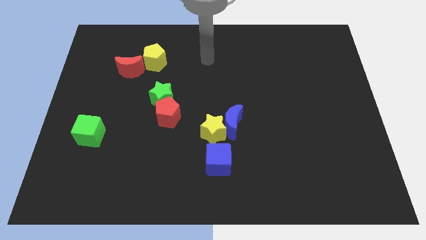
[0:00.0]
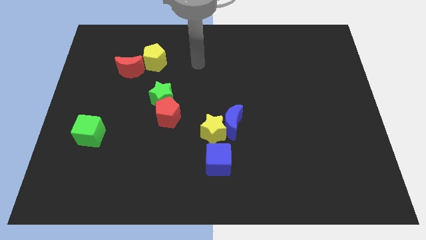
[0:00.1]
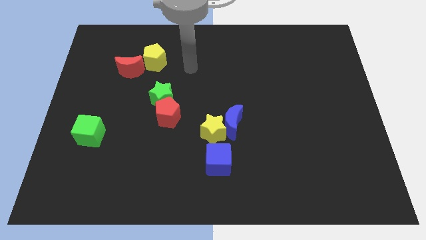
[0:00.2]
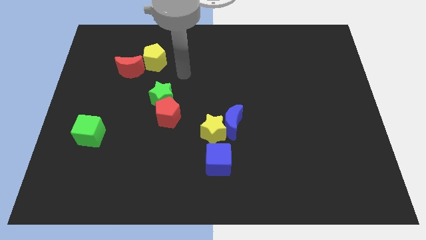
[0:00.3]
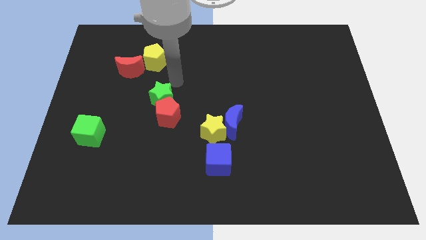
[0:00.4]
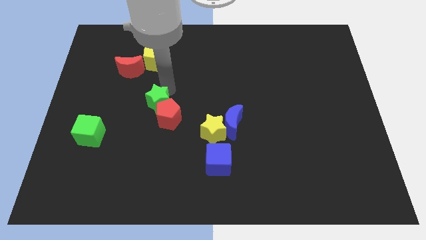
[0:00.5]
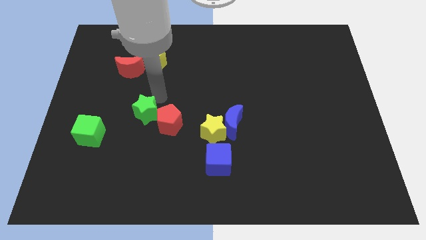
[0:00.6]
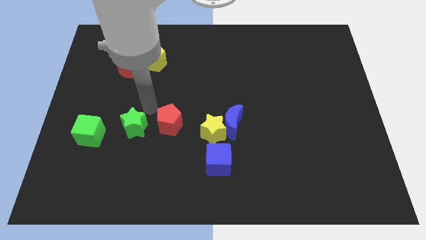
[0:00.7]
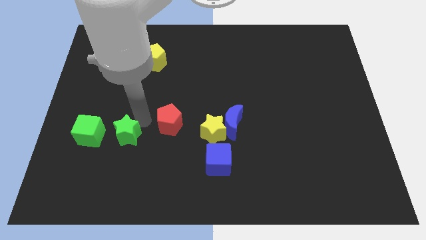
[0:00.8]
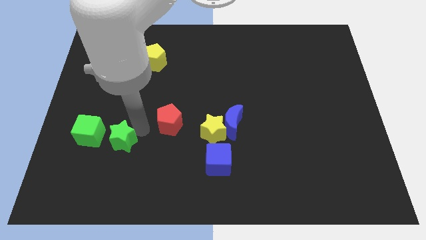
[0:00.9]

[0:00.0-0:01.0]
move the red pentagon away from the green star

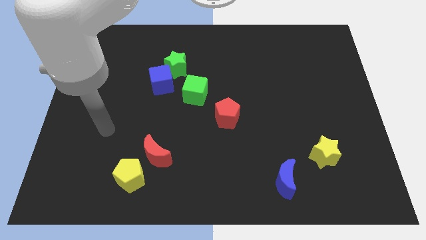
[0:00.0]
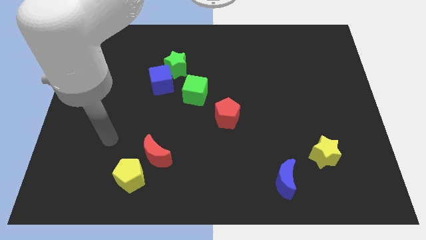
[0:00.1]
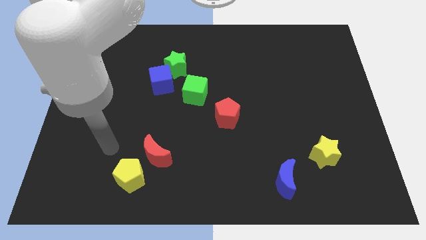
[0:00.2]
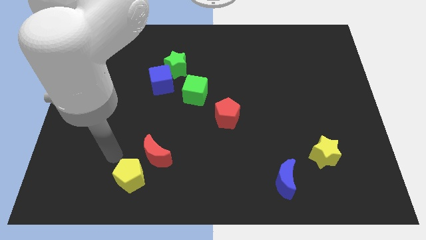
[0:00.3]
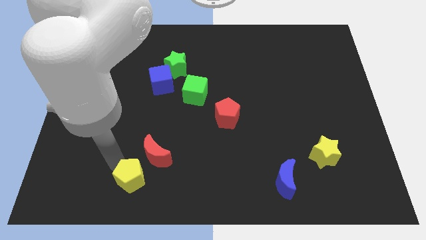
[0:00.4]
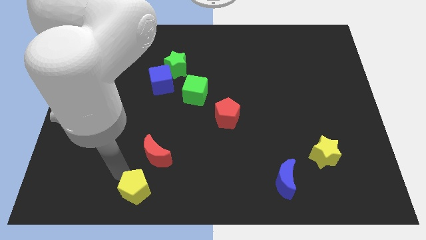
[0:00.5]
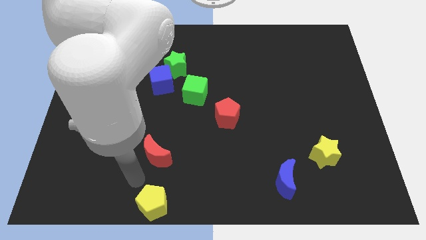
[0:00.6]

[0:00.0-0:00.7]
pull the red moon apart from the yellow pentagon

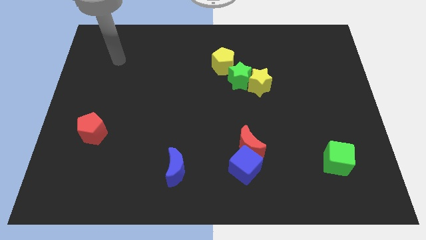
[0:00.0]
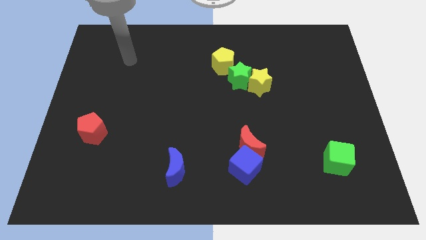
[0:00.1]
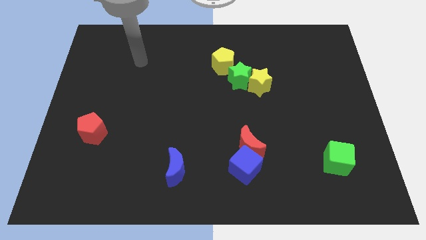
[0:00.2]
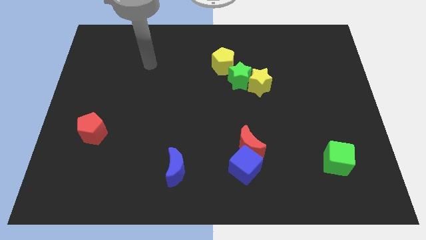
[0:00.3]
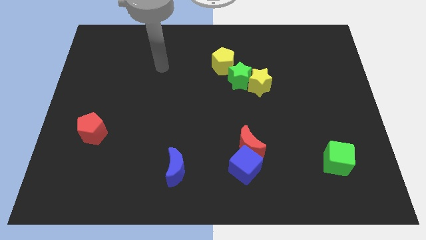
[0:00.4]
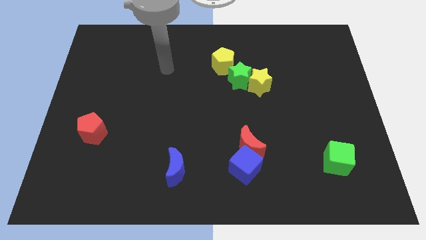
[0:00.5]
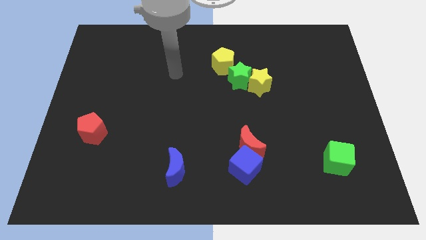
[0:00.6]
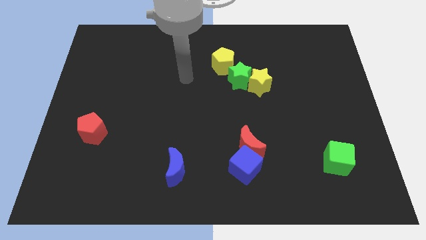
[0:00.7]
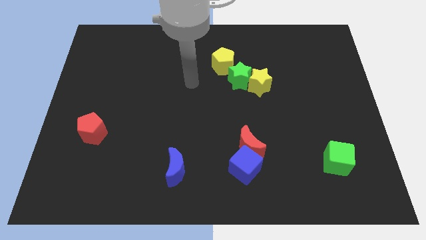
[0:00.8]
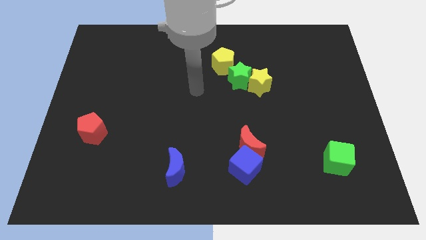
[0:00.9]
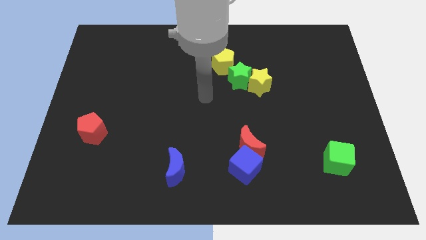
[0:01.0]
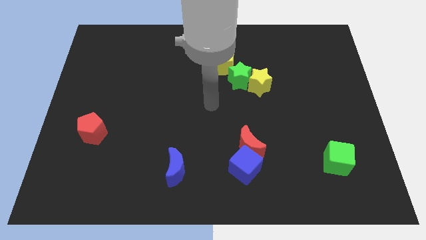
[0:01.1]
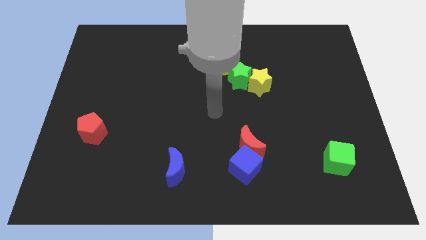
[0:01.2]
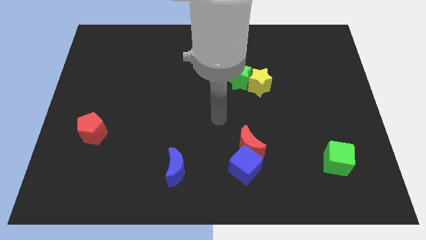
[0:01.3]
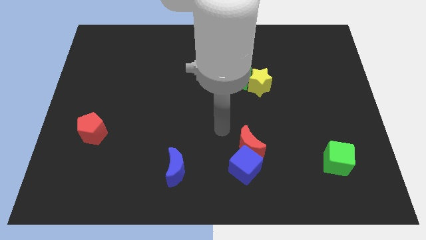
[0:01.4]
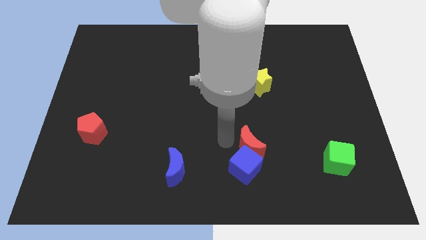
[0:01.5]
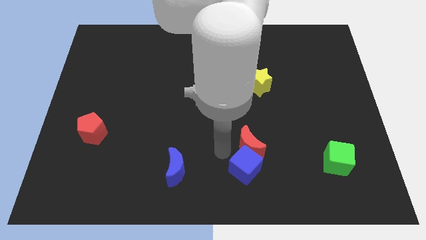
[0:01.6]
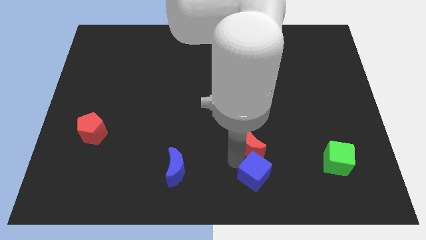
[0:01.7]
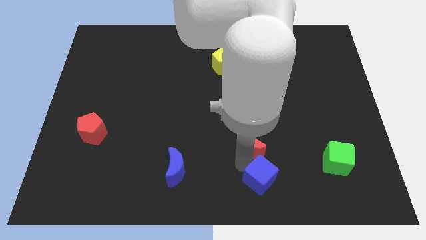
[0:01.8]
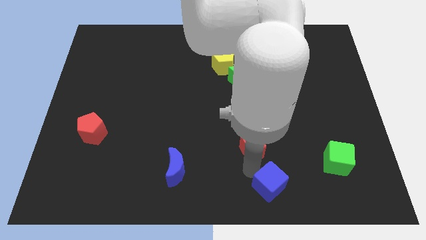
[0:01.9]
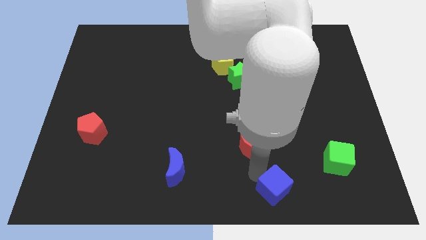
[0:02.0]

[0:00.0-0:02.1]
pull the red moon apart from the blue cube

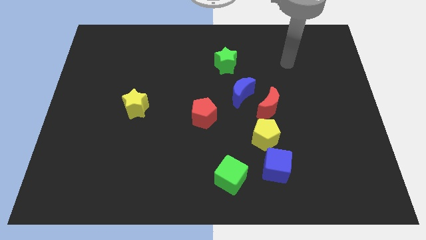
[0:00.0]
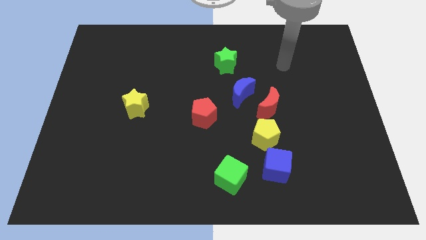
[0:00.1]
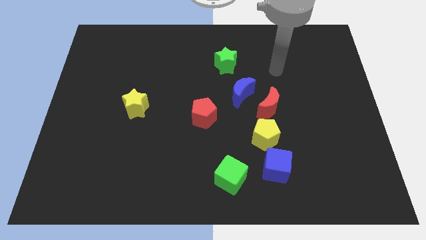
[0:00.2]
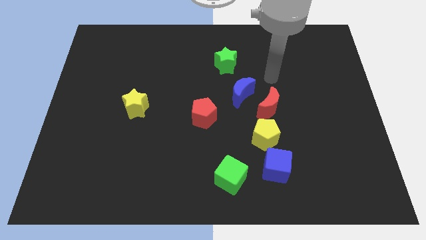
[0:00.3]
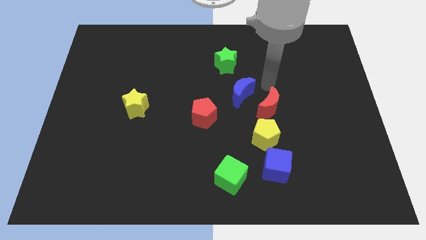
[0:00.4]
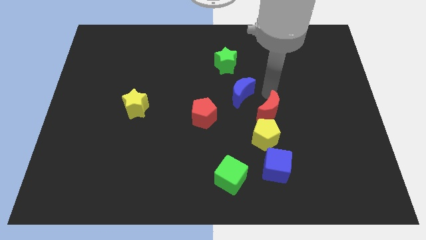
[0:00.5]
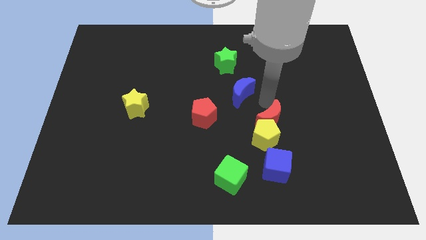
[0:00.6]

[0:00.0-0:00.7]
pull the blue moon apart from the red moon

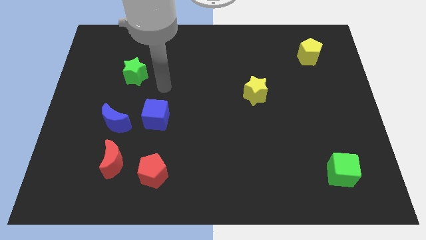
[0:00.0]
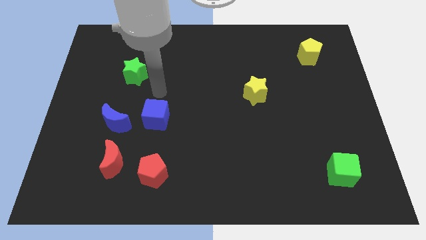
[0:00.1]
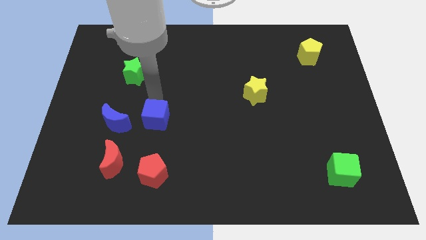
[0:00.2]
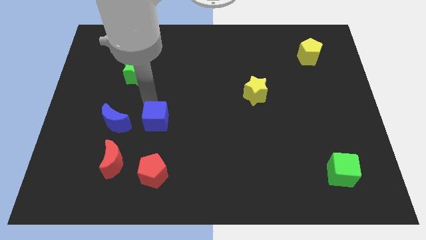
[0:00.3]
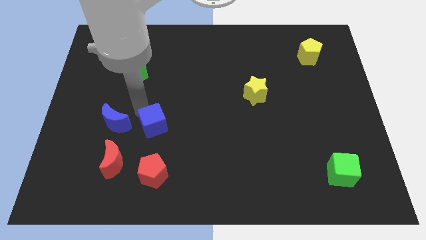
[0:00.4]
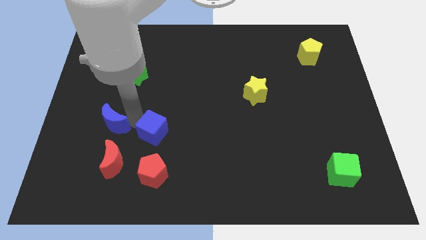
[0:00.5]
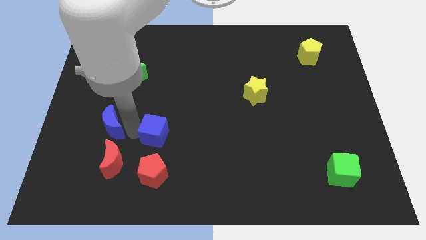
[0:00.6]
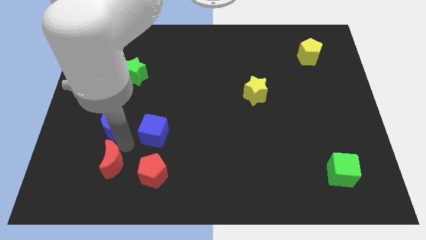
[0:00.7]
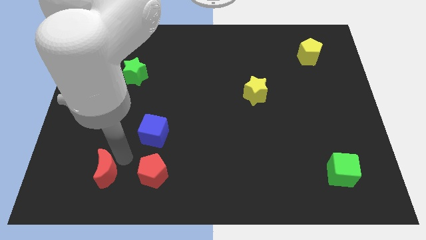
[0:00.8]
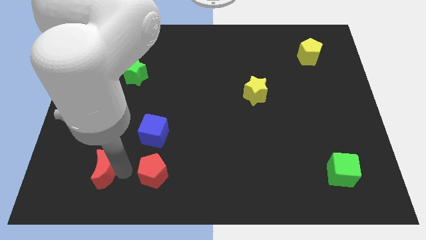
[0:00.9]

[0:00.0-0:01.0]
move the red pentagon away from the red moon

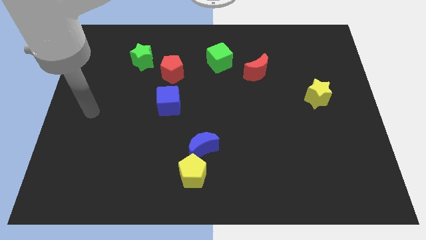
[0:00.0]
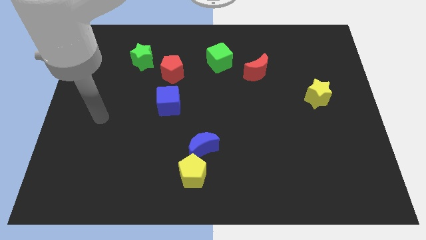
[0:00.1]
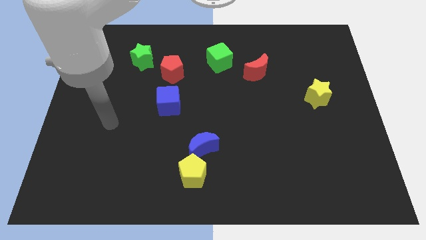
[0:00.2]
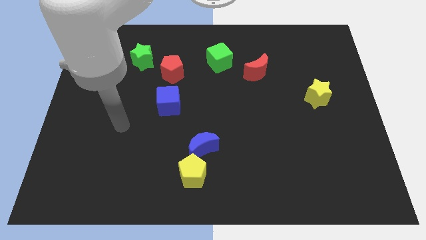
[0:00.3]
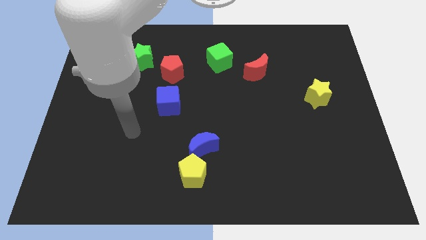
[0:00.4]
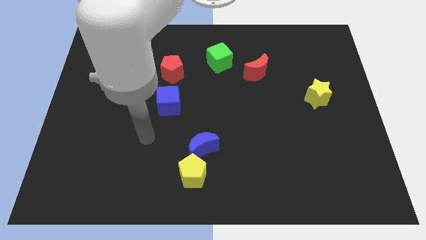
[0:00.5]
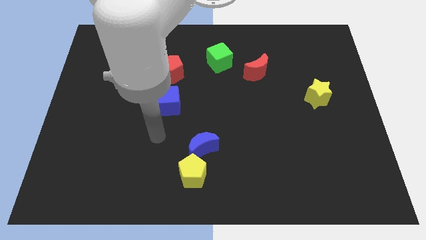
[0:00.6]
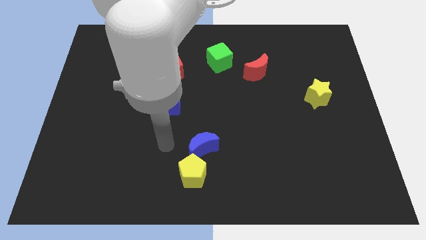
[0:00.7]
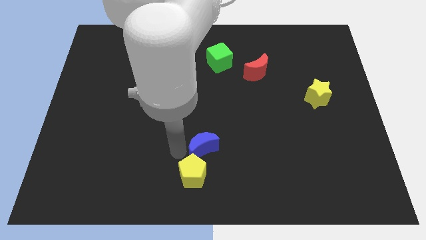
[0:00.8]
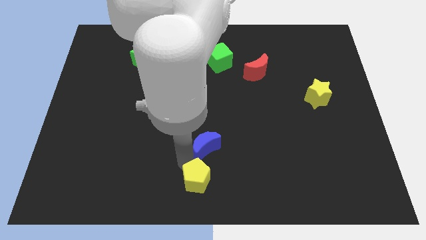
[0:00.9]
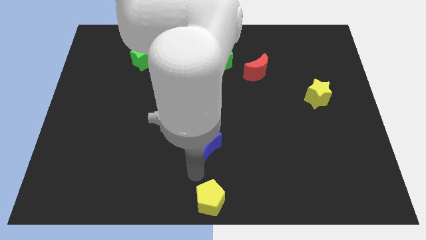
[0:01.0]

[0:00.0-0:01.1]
move the blue moon away from the yellow pentagon

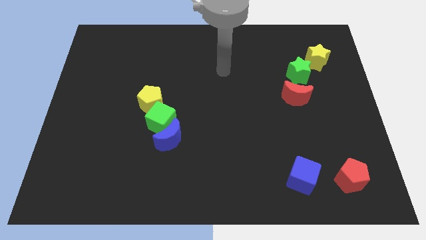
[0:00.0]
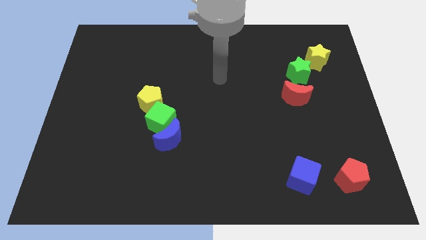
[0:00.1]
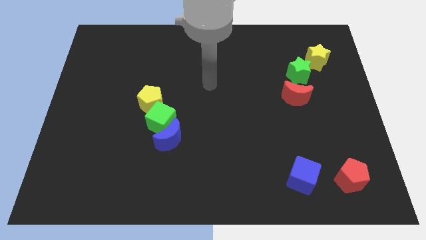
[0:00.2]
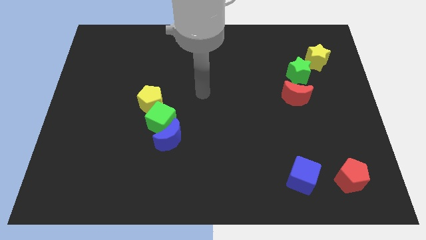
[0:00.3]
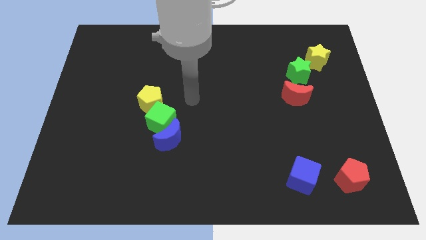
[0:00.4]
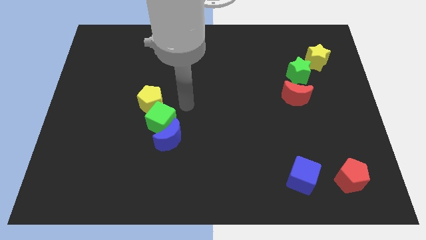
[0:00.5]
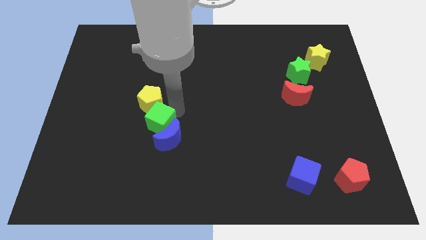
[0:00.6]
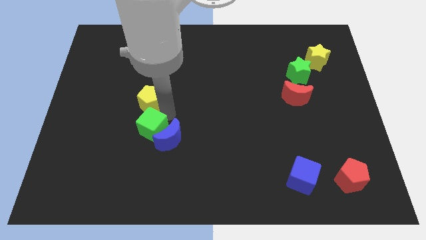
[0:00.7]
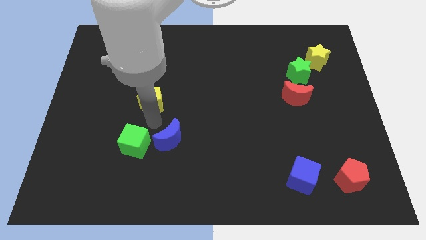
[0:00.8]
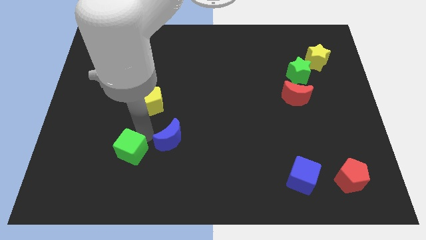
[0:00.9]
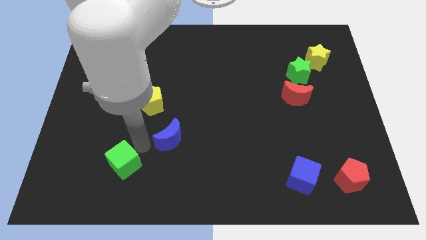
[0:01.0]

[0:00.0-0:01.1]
pull the blue moon apart from the green cube

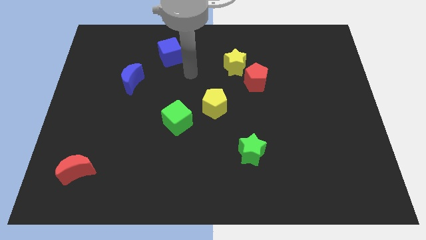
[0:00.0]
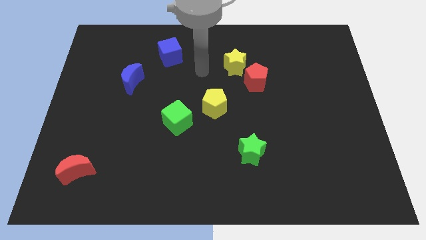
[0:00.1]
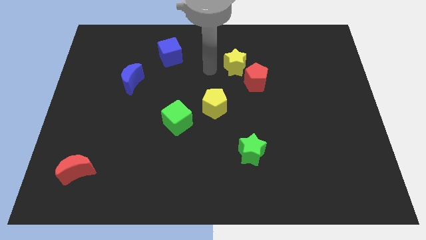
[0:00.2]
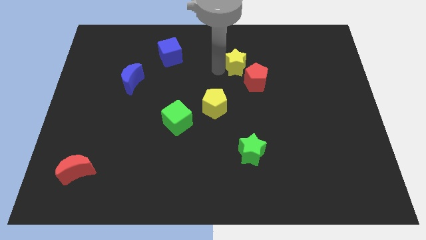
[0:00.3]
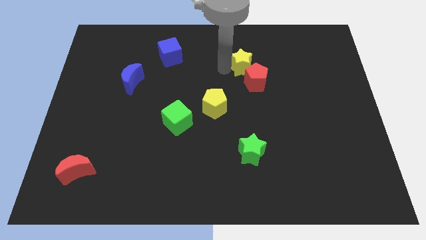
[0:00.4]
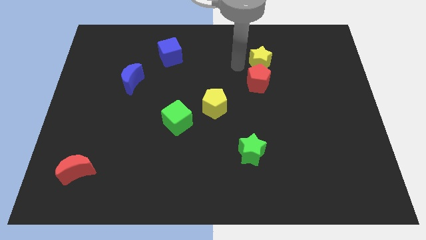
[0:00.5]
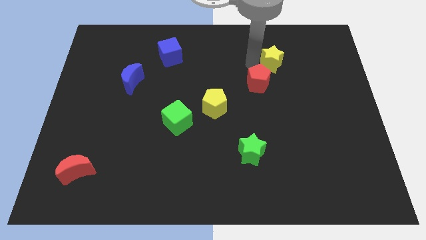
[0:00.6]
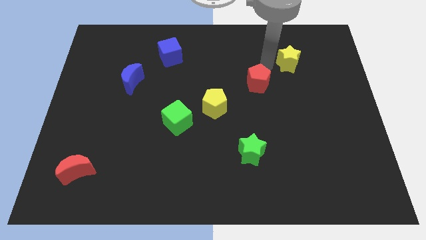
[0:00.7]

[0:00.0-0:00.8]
pull the red pentagon apart from the yellow star

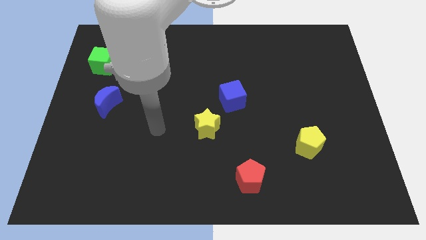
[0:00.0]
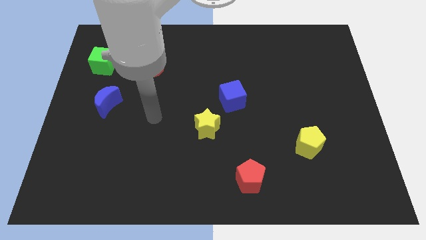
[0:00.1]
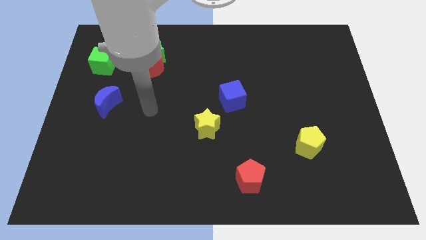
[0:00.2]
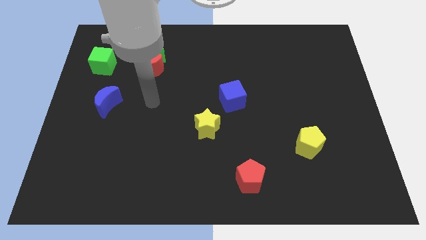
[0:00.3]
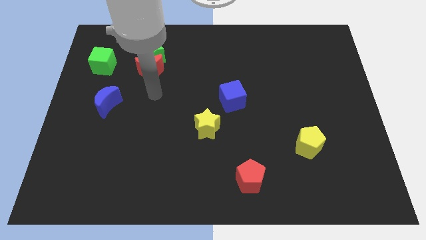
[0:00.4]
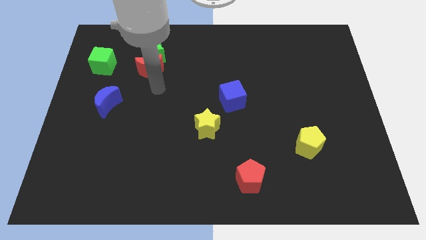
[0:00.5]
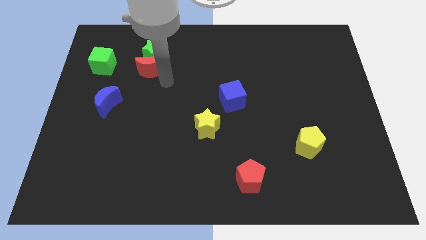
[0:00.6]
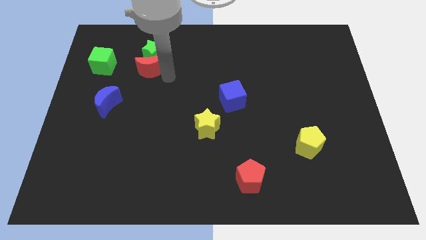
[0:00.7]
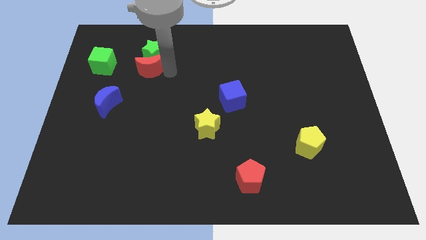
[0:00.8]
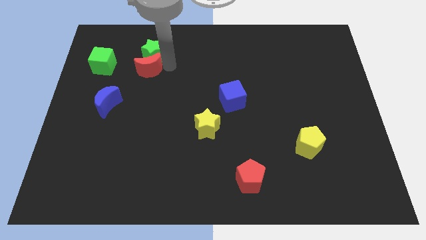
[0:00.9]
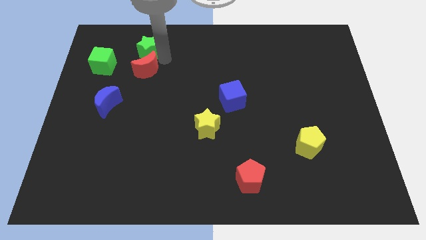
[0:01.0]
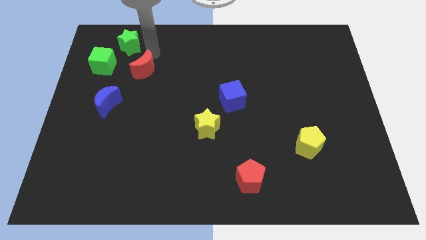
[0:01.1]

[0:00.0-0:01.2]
move the red moon away from the green star
